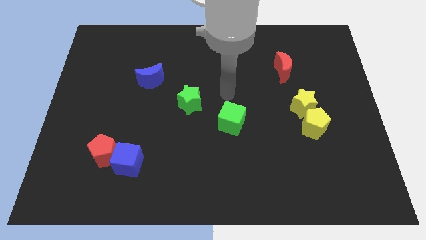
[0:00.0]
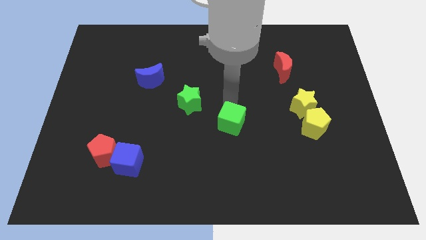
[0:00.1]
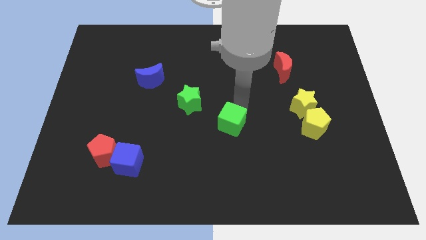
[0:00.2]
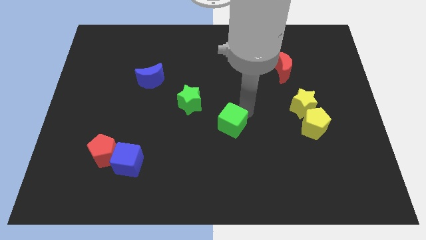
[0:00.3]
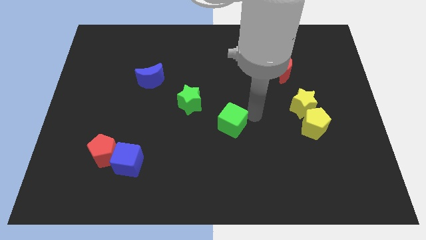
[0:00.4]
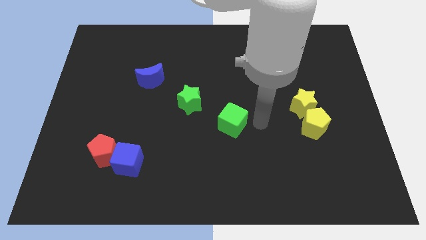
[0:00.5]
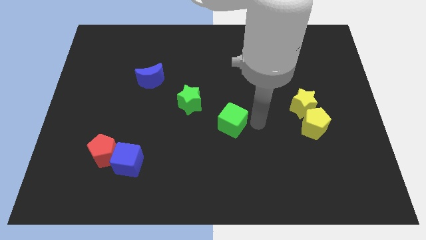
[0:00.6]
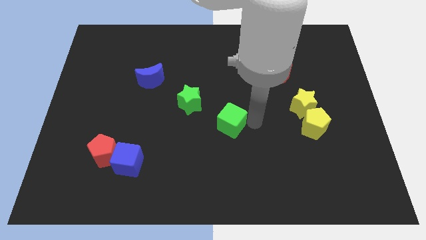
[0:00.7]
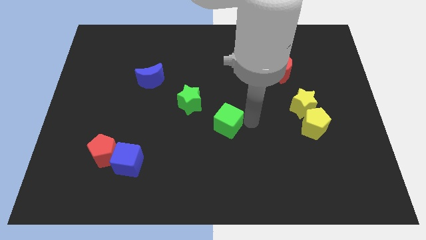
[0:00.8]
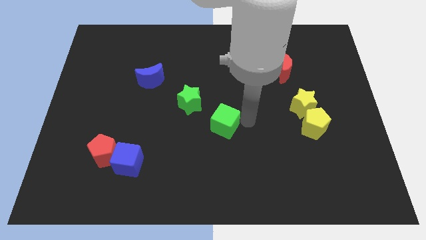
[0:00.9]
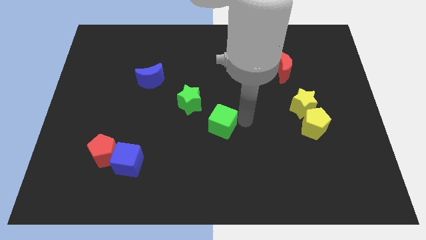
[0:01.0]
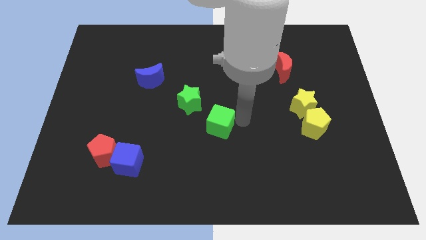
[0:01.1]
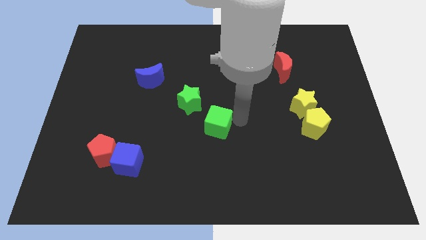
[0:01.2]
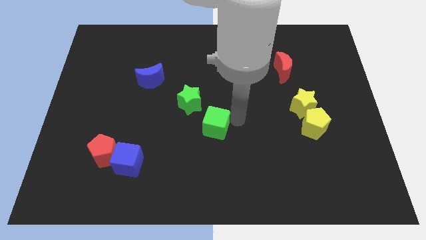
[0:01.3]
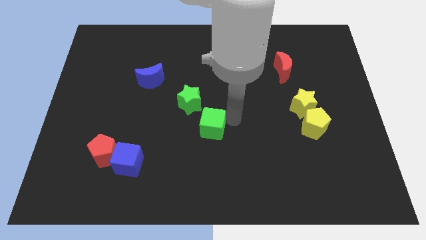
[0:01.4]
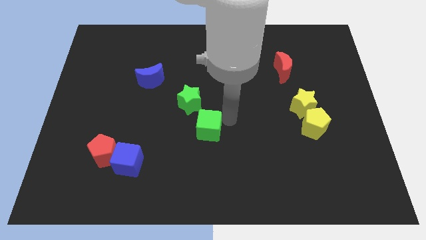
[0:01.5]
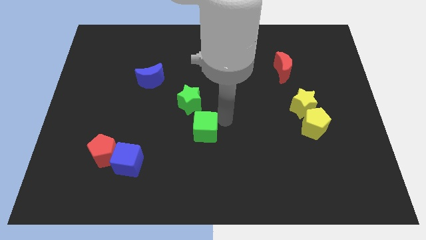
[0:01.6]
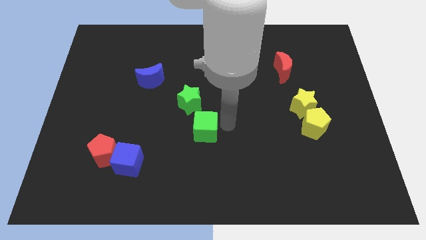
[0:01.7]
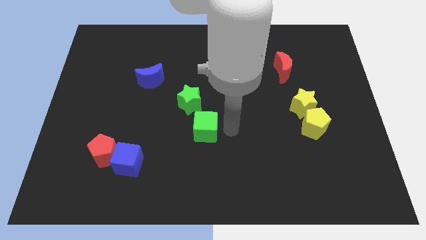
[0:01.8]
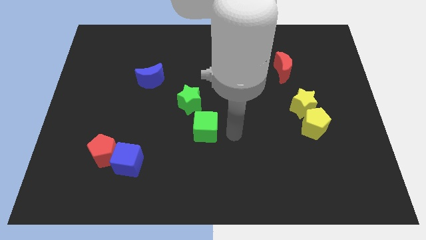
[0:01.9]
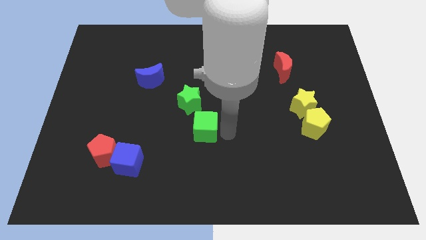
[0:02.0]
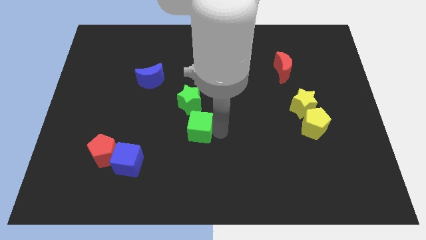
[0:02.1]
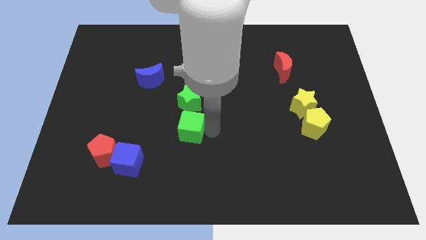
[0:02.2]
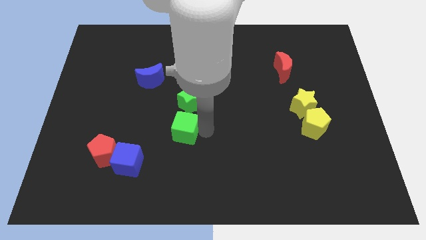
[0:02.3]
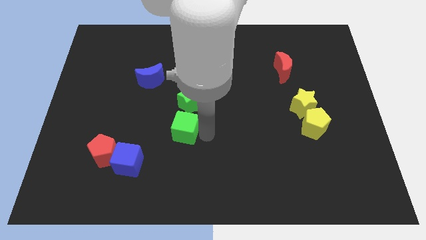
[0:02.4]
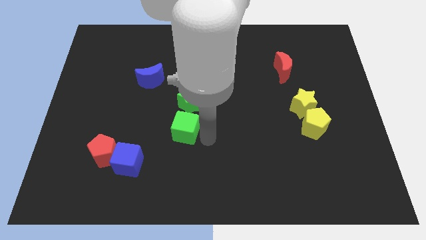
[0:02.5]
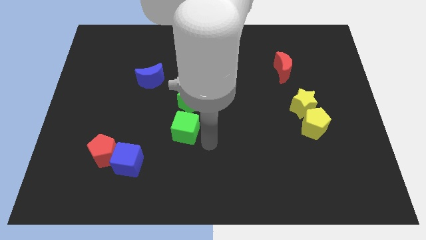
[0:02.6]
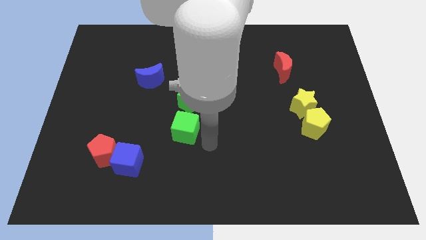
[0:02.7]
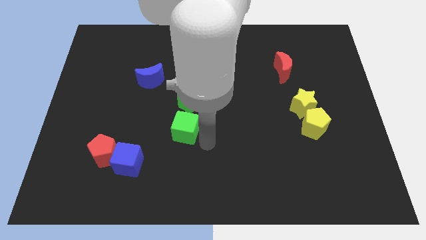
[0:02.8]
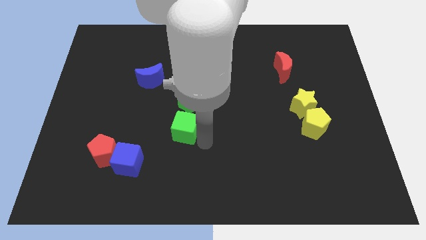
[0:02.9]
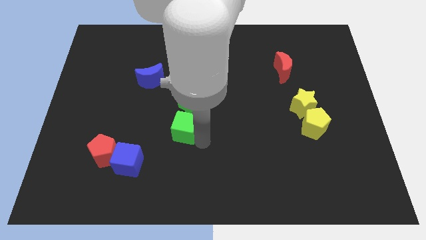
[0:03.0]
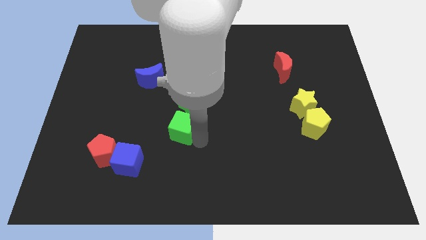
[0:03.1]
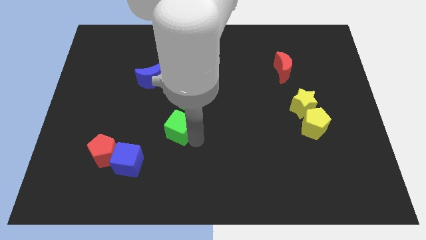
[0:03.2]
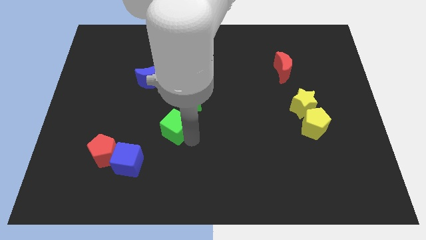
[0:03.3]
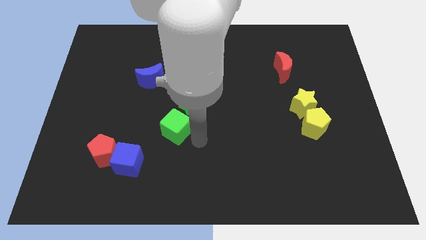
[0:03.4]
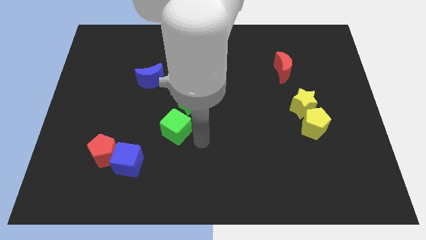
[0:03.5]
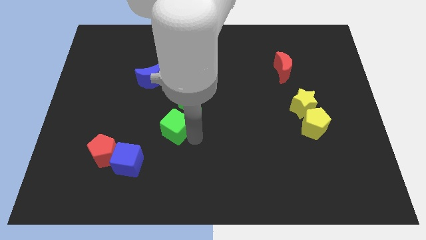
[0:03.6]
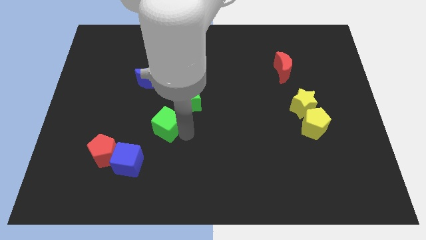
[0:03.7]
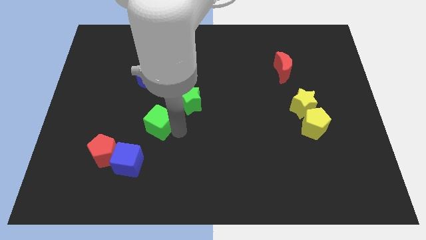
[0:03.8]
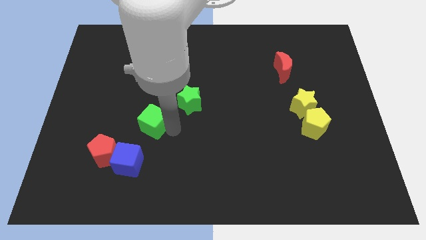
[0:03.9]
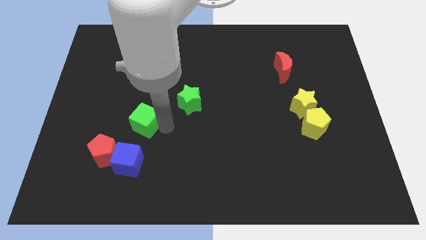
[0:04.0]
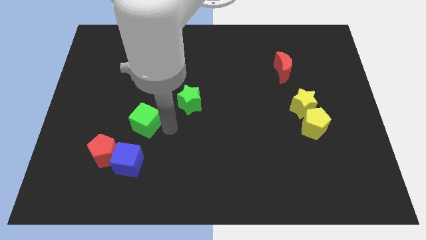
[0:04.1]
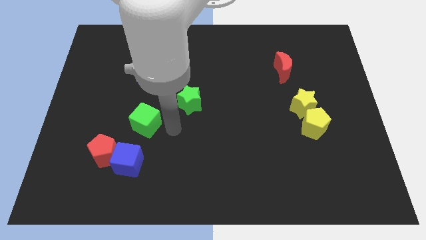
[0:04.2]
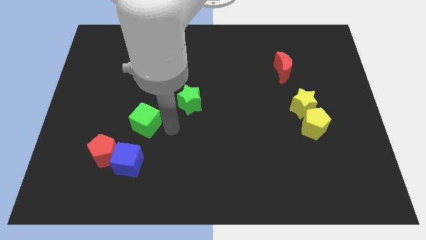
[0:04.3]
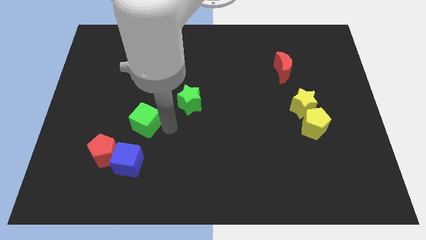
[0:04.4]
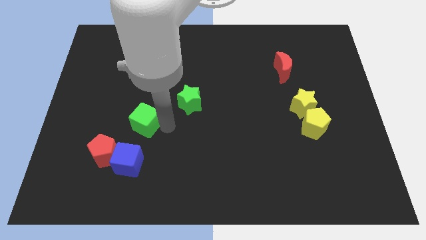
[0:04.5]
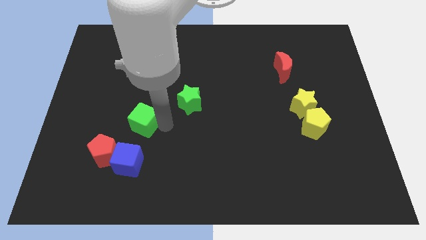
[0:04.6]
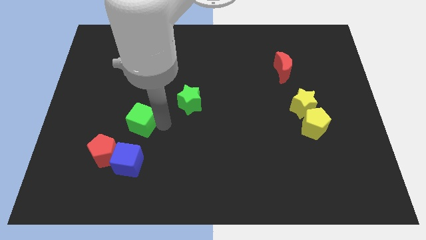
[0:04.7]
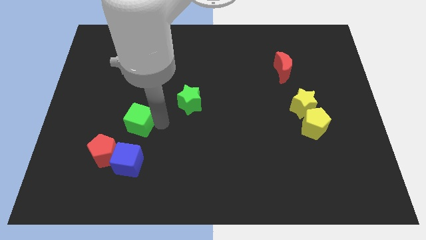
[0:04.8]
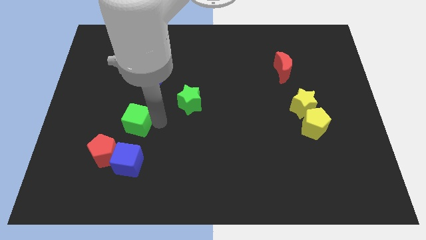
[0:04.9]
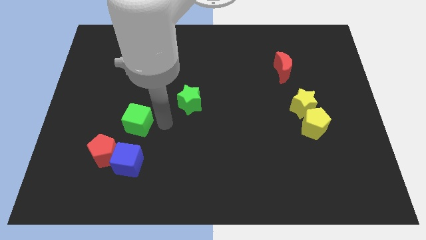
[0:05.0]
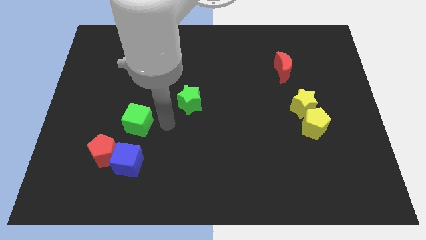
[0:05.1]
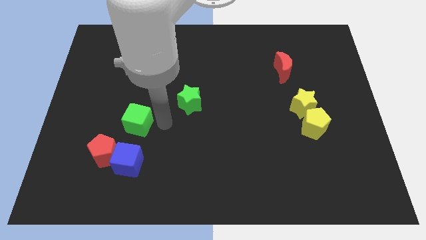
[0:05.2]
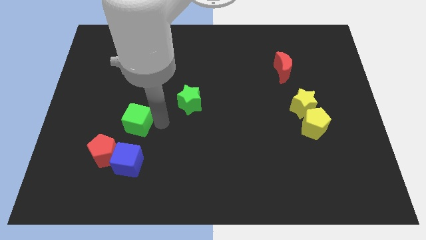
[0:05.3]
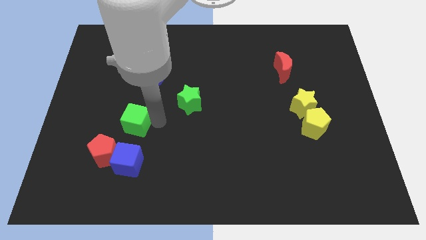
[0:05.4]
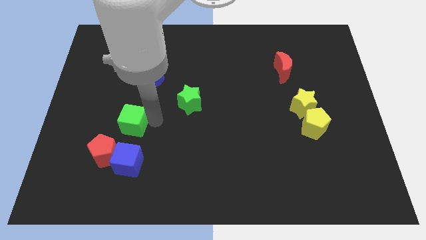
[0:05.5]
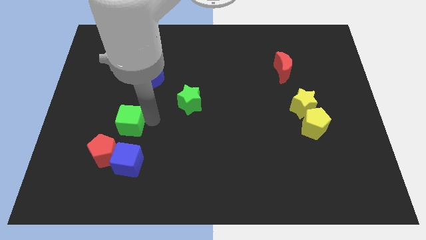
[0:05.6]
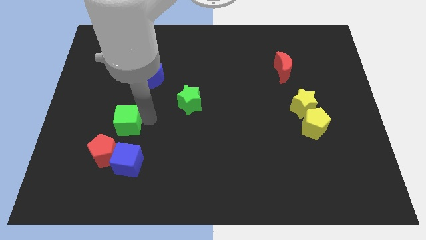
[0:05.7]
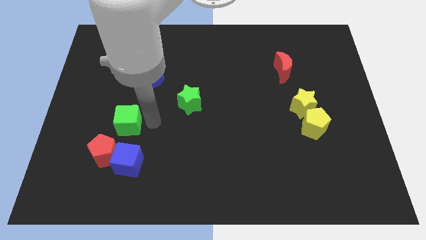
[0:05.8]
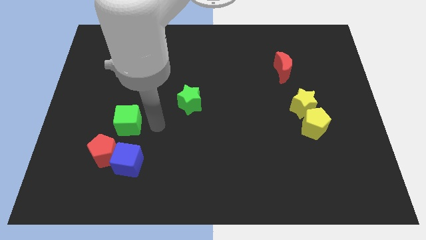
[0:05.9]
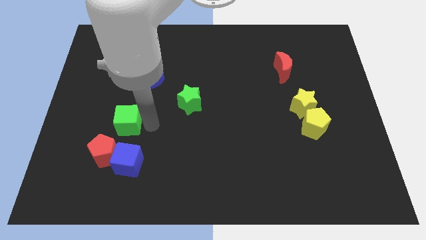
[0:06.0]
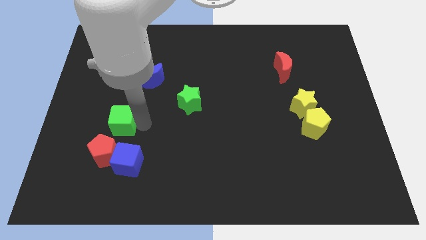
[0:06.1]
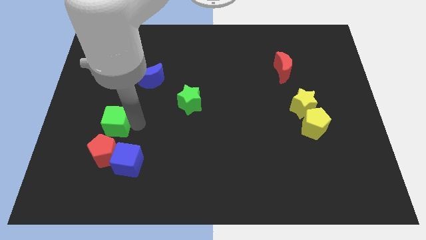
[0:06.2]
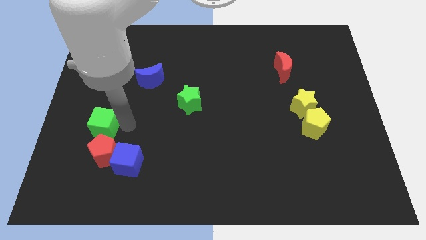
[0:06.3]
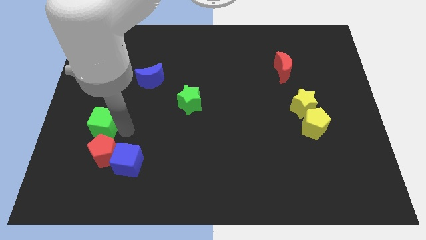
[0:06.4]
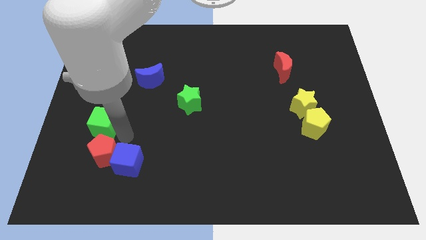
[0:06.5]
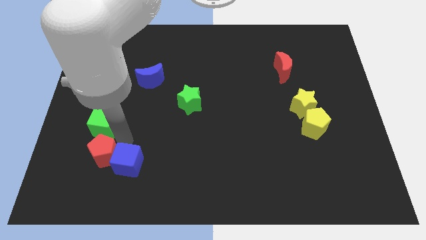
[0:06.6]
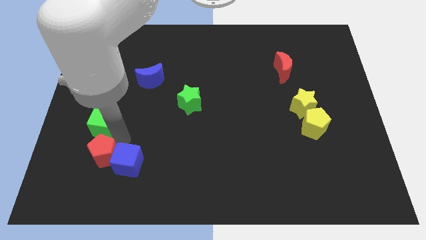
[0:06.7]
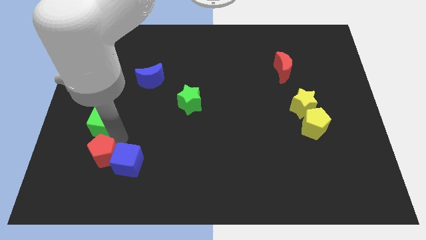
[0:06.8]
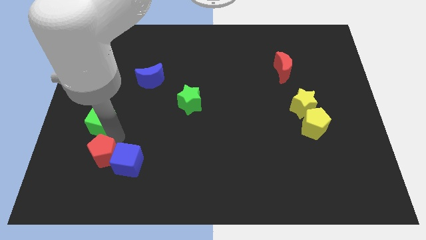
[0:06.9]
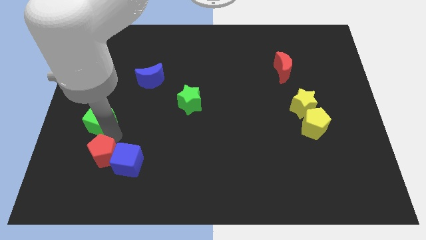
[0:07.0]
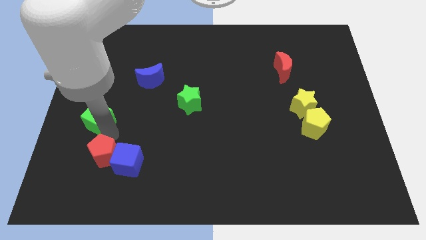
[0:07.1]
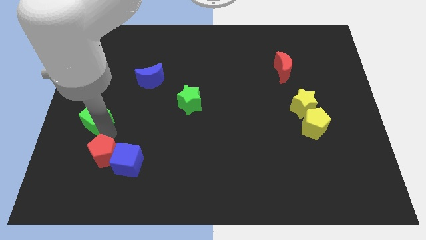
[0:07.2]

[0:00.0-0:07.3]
move the green cube to the center left
